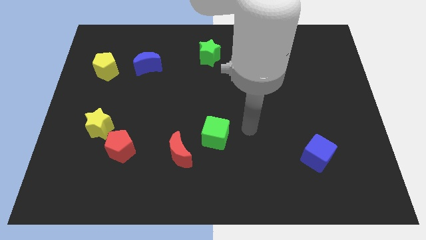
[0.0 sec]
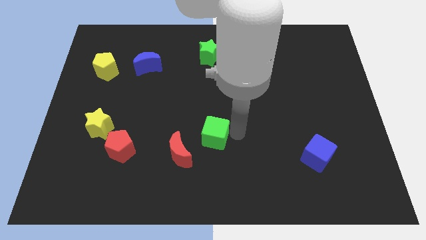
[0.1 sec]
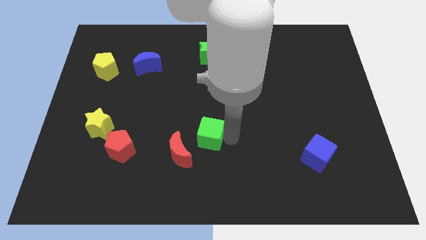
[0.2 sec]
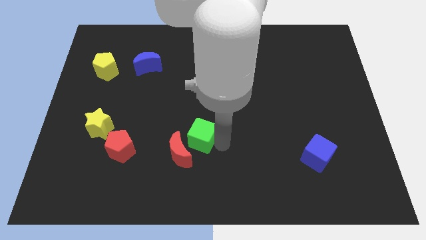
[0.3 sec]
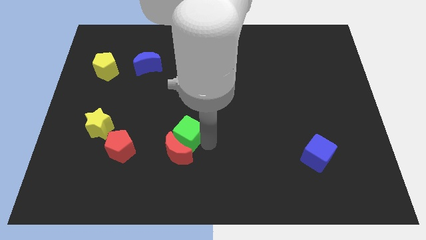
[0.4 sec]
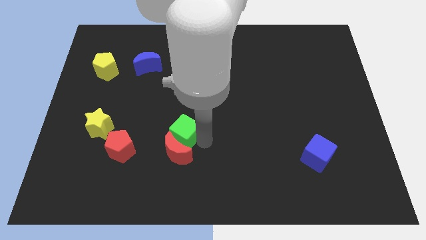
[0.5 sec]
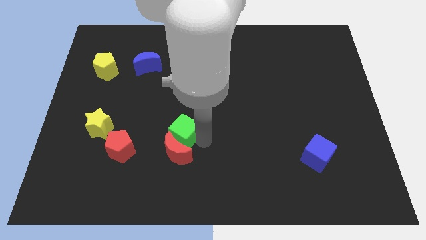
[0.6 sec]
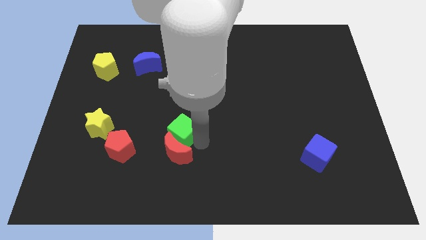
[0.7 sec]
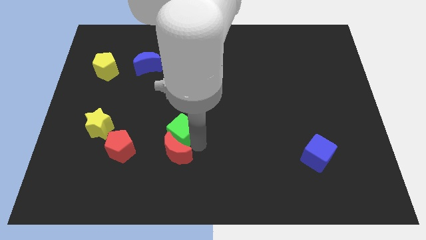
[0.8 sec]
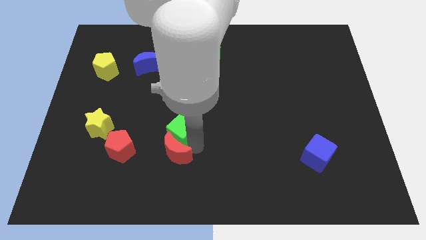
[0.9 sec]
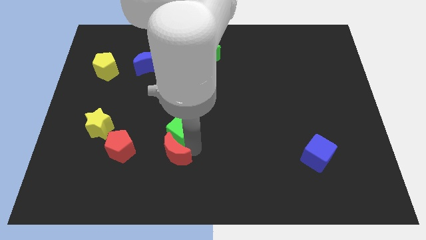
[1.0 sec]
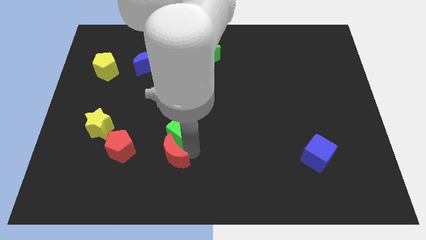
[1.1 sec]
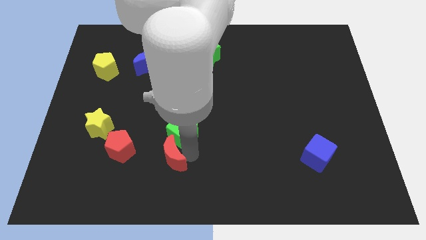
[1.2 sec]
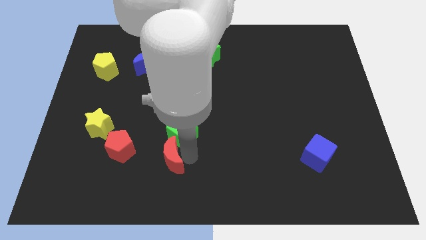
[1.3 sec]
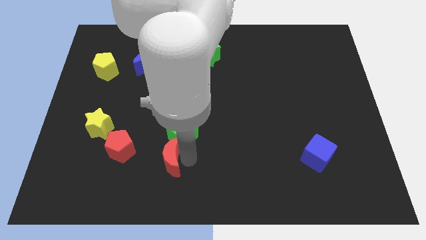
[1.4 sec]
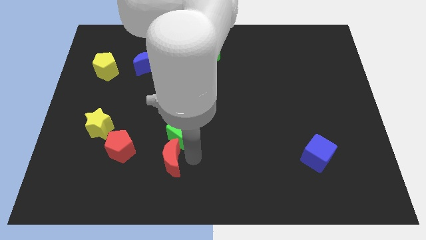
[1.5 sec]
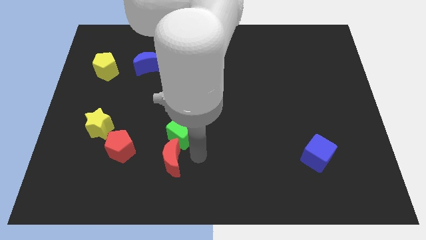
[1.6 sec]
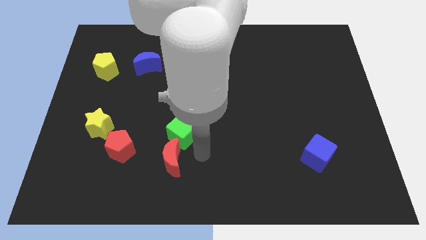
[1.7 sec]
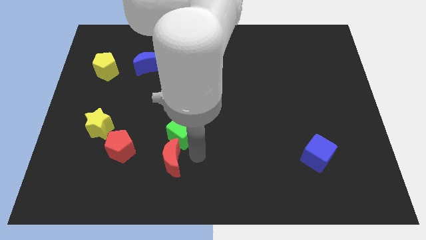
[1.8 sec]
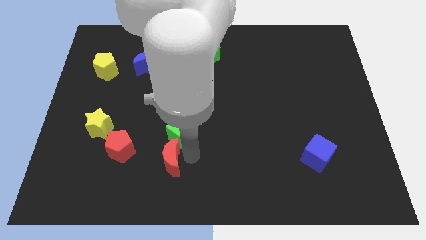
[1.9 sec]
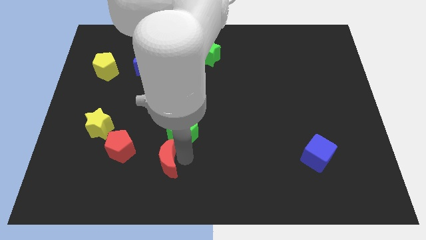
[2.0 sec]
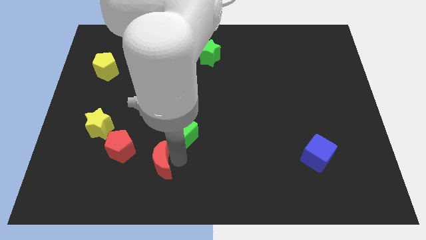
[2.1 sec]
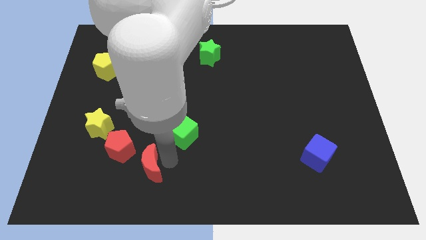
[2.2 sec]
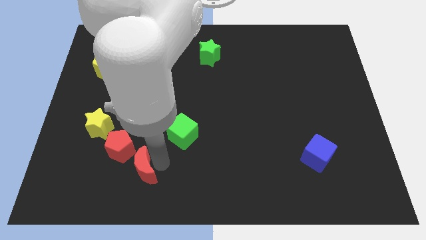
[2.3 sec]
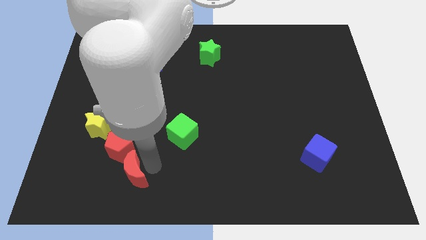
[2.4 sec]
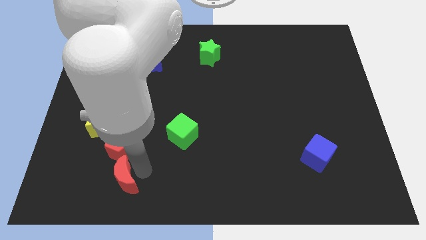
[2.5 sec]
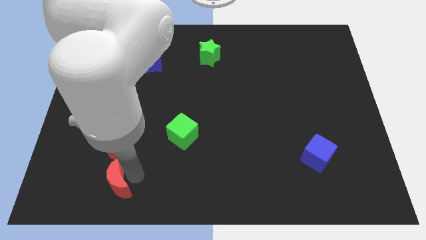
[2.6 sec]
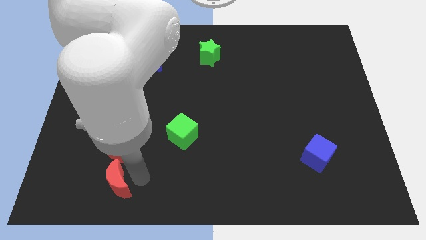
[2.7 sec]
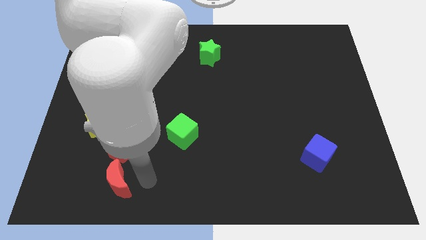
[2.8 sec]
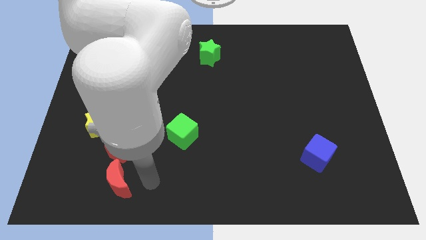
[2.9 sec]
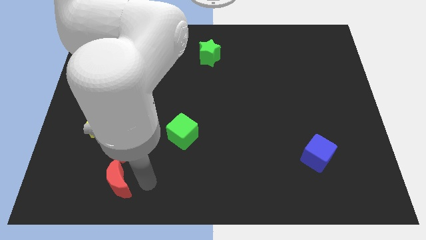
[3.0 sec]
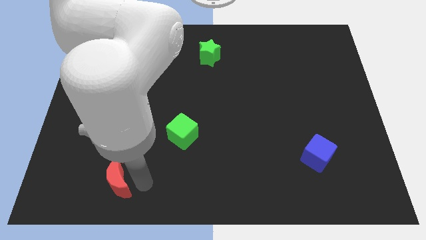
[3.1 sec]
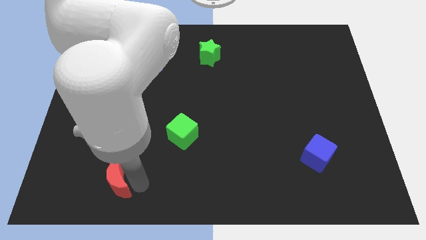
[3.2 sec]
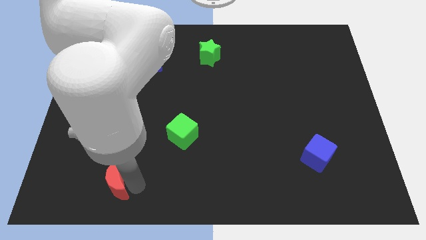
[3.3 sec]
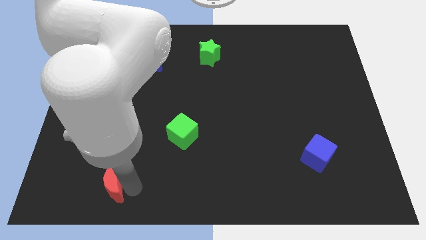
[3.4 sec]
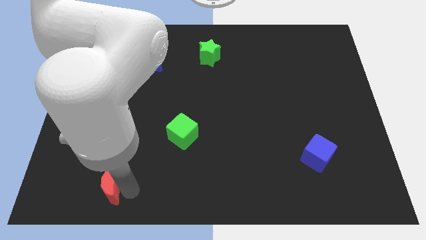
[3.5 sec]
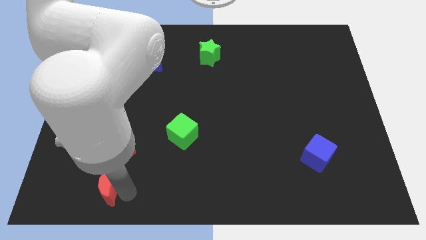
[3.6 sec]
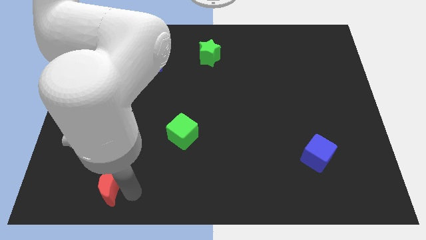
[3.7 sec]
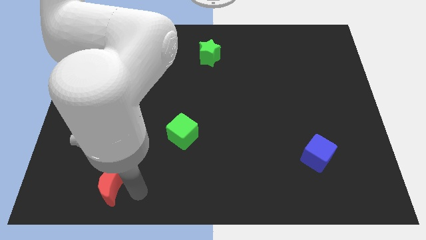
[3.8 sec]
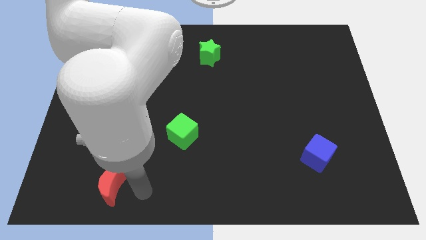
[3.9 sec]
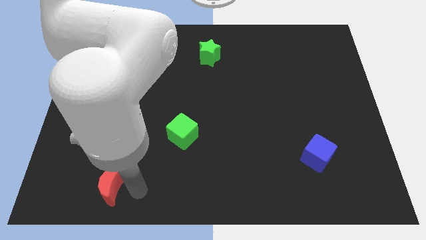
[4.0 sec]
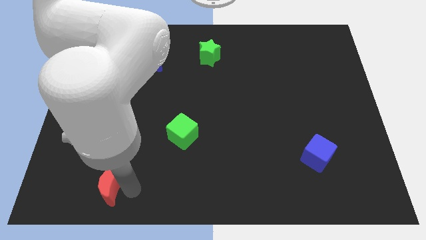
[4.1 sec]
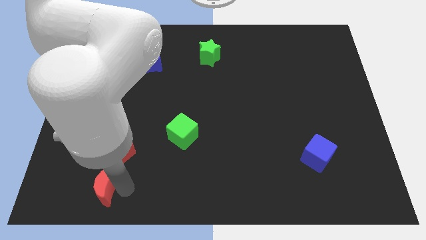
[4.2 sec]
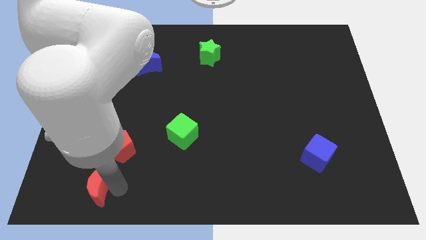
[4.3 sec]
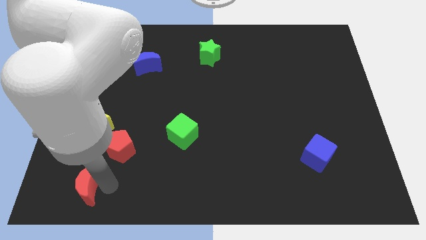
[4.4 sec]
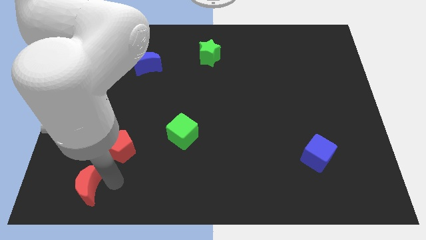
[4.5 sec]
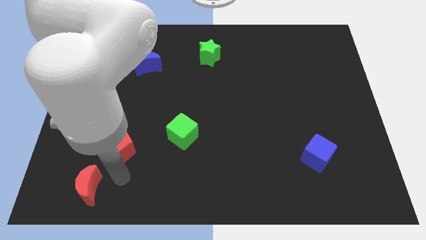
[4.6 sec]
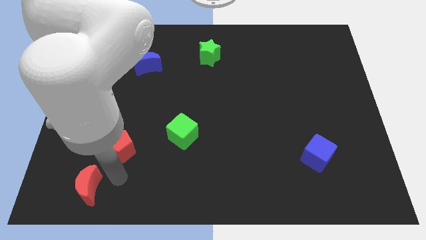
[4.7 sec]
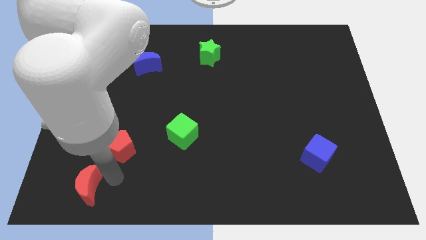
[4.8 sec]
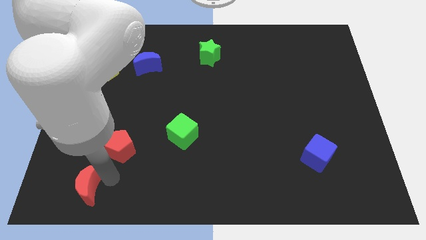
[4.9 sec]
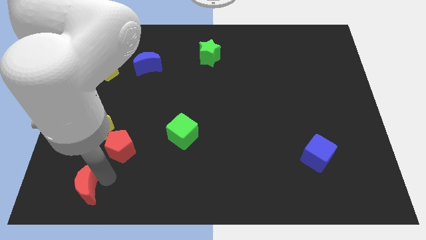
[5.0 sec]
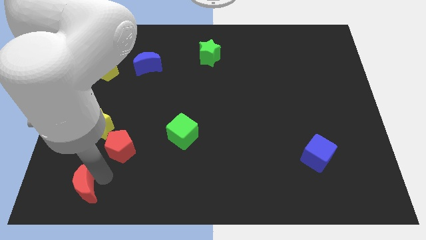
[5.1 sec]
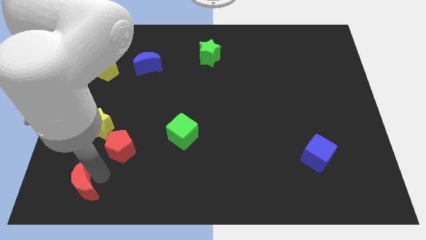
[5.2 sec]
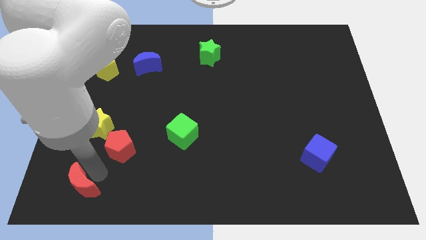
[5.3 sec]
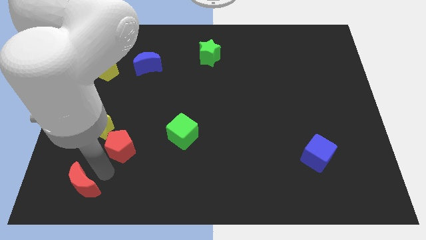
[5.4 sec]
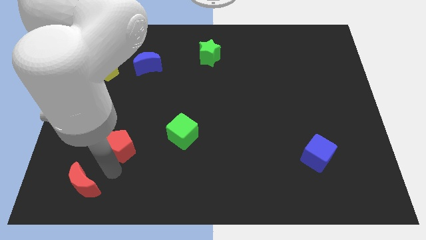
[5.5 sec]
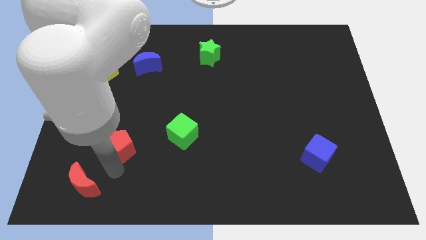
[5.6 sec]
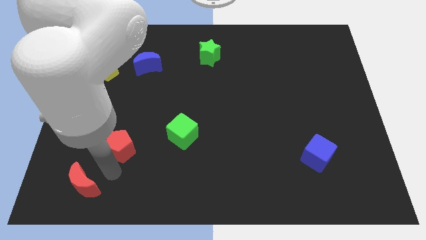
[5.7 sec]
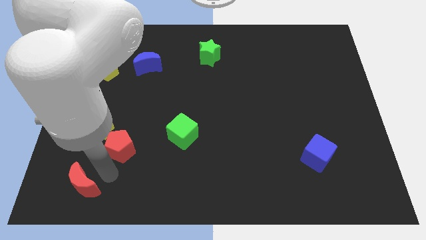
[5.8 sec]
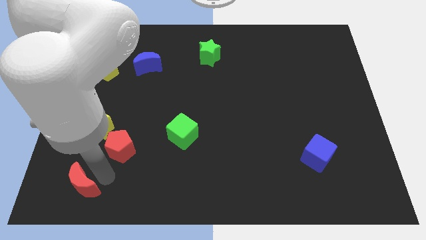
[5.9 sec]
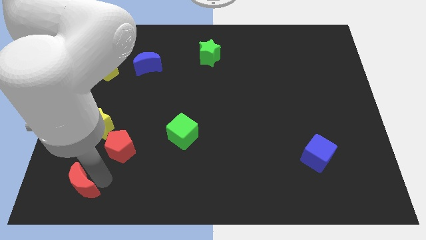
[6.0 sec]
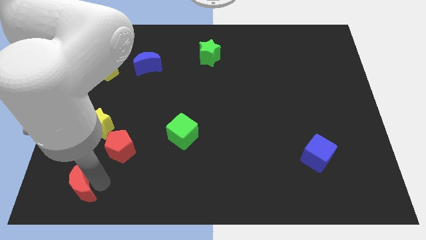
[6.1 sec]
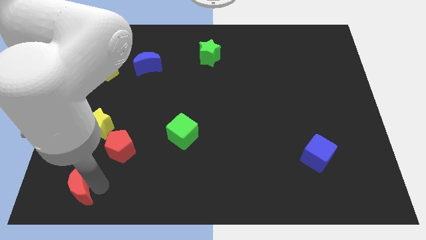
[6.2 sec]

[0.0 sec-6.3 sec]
move the red moon to the bottom left

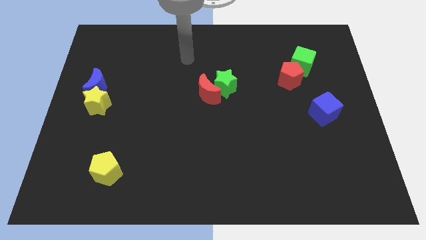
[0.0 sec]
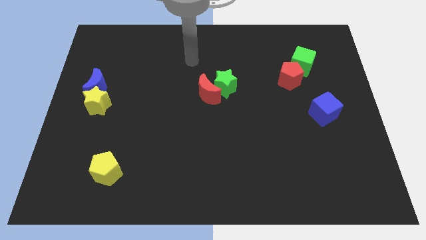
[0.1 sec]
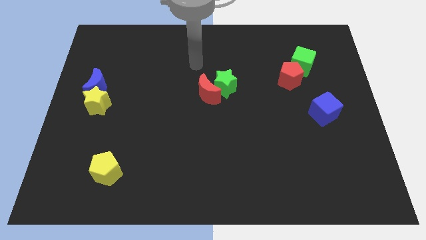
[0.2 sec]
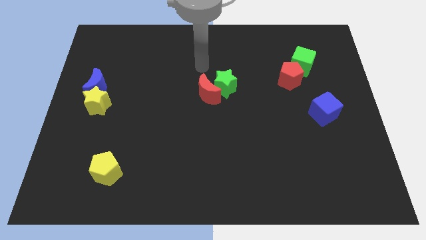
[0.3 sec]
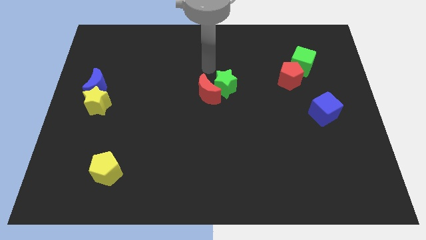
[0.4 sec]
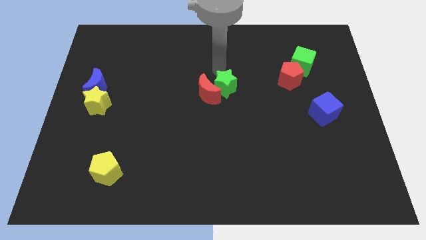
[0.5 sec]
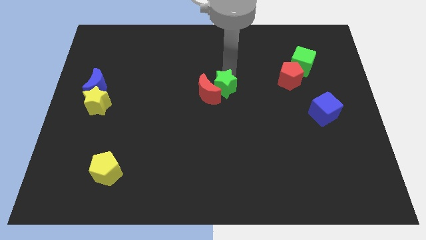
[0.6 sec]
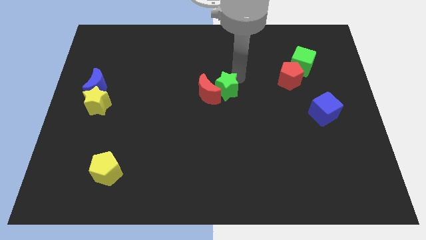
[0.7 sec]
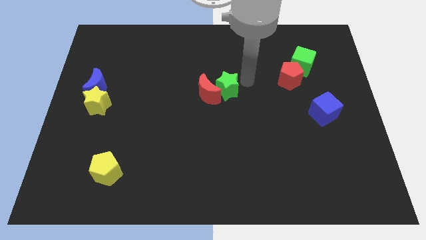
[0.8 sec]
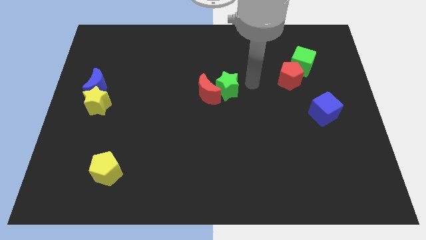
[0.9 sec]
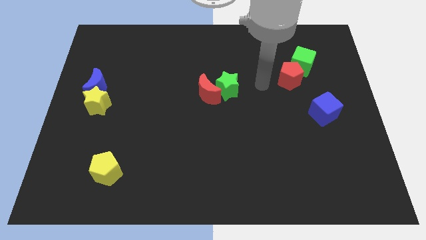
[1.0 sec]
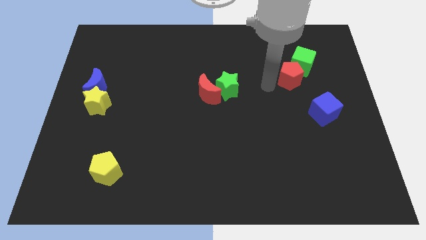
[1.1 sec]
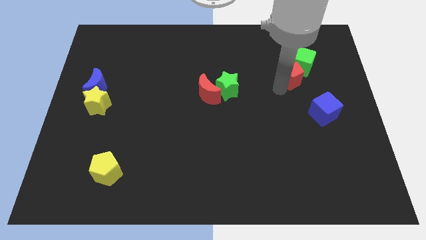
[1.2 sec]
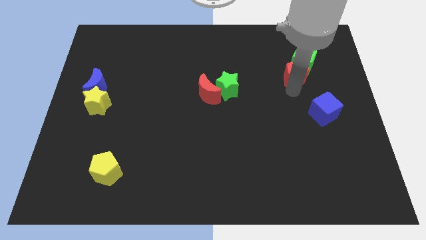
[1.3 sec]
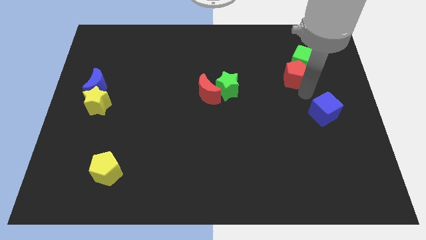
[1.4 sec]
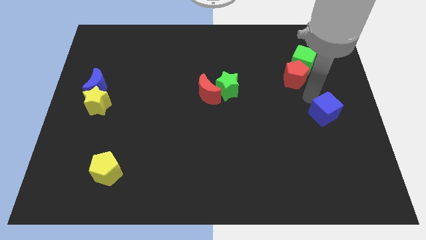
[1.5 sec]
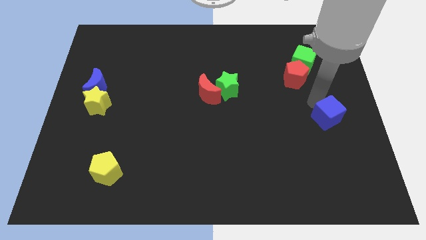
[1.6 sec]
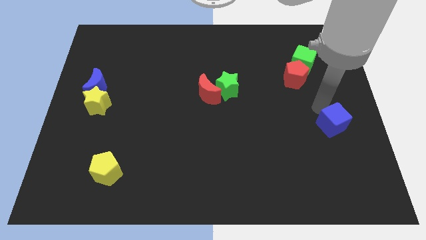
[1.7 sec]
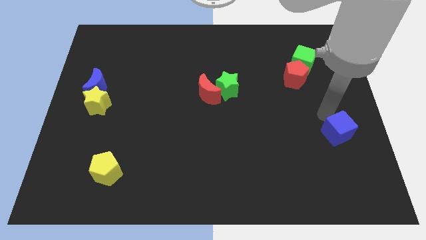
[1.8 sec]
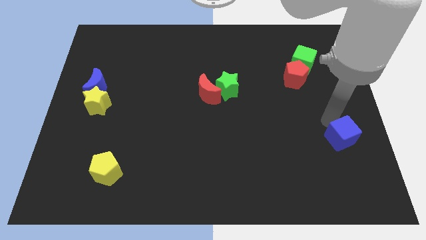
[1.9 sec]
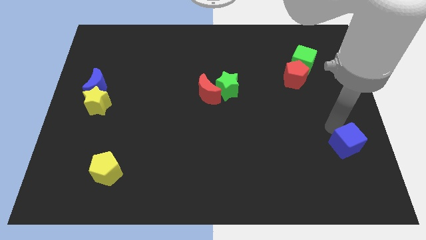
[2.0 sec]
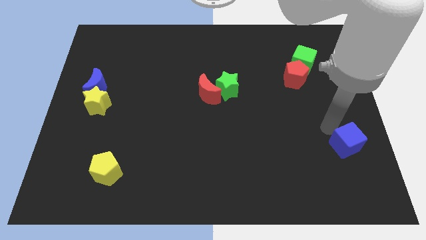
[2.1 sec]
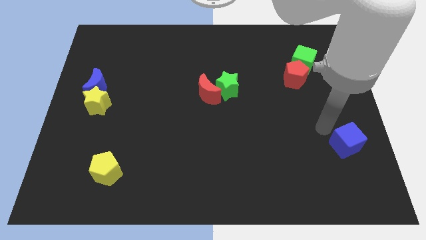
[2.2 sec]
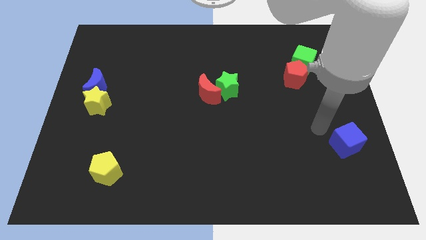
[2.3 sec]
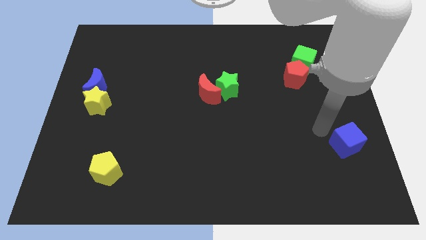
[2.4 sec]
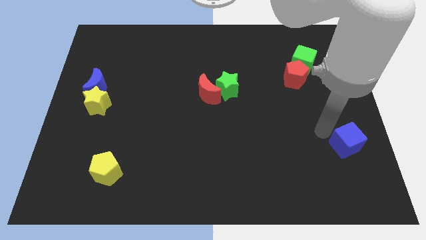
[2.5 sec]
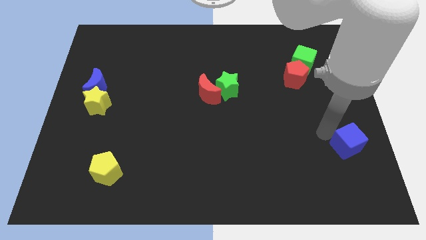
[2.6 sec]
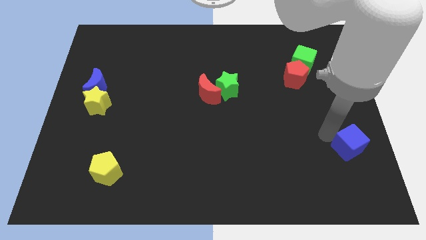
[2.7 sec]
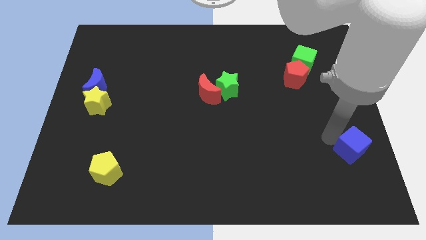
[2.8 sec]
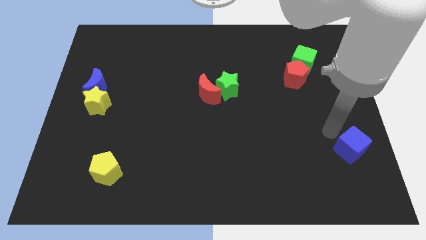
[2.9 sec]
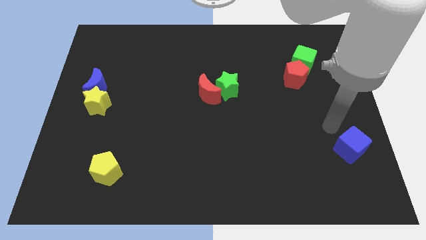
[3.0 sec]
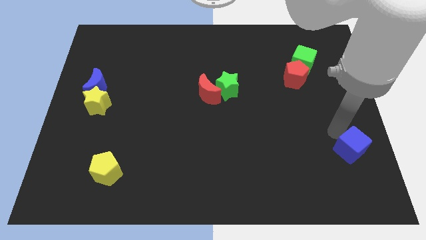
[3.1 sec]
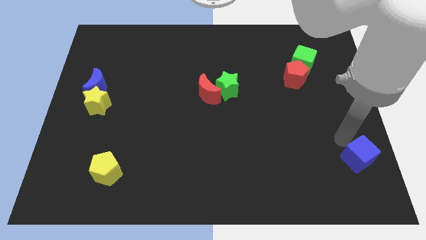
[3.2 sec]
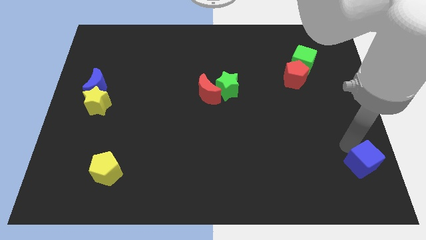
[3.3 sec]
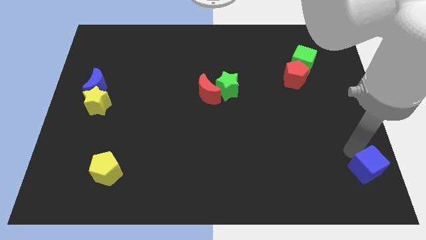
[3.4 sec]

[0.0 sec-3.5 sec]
move the blue cube to the bottom right corner
